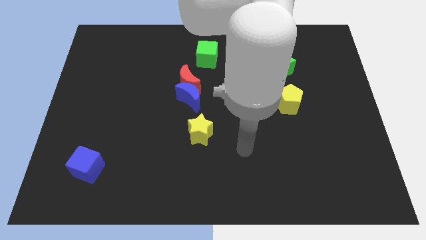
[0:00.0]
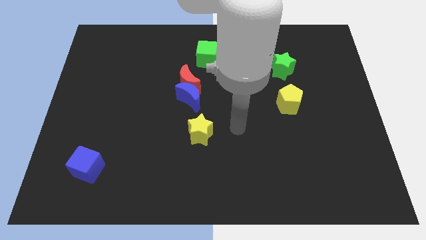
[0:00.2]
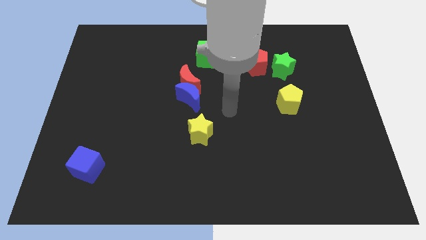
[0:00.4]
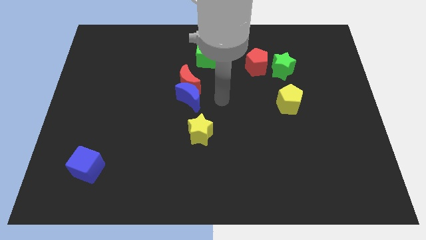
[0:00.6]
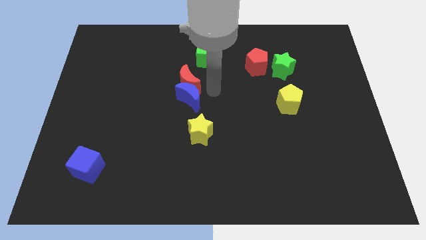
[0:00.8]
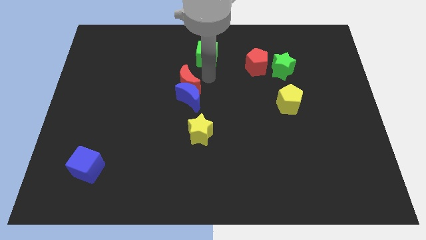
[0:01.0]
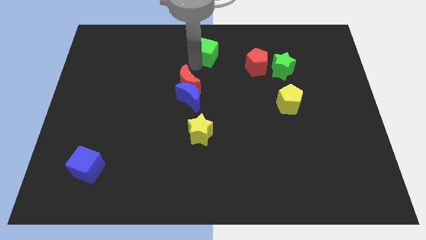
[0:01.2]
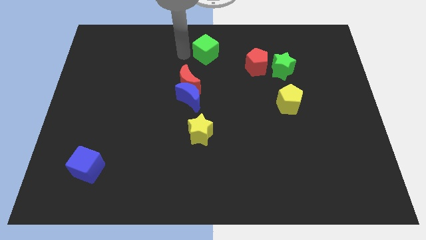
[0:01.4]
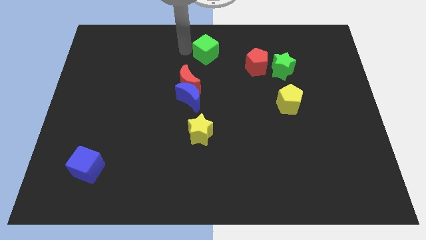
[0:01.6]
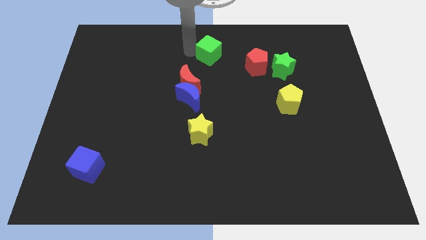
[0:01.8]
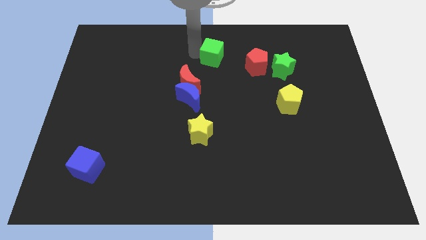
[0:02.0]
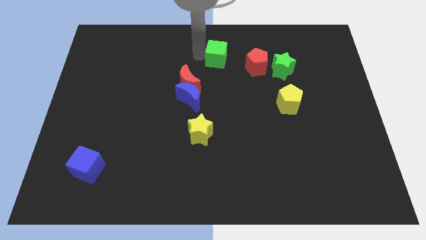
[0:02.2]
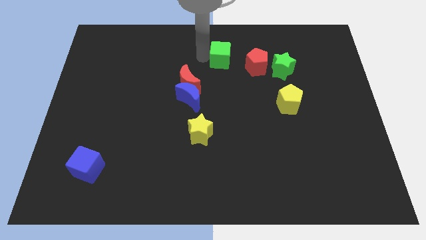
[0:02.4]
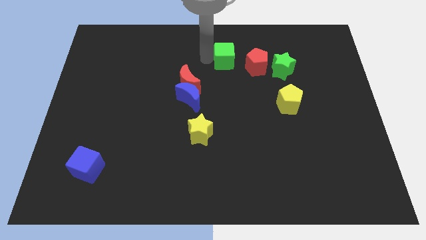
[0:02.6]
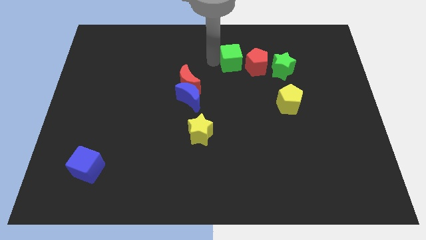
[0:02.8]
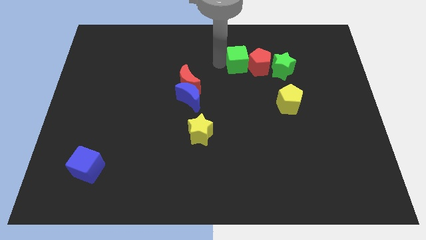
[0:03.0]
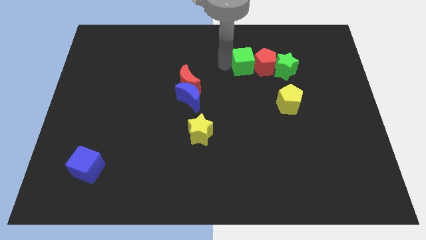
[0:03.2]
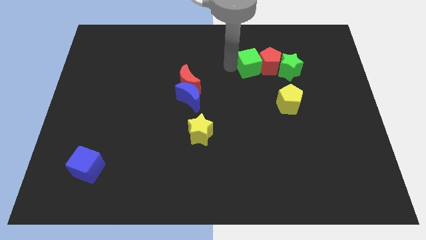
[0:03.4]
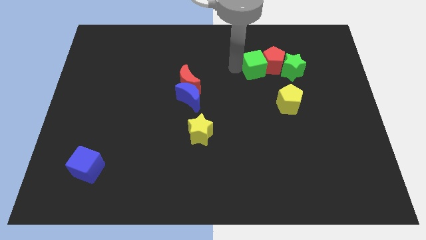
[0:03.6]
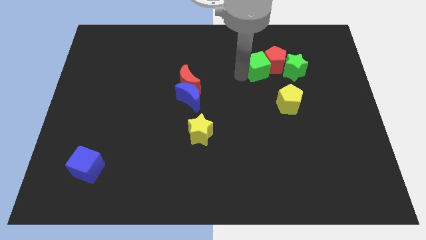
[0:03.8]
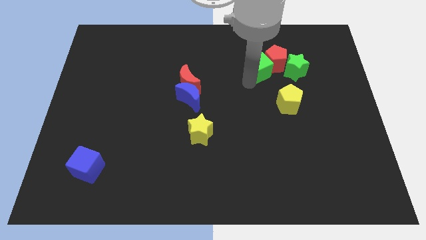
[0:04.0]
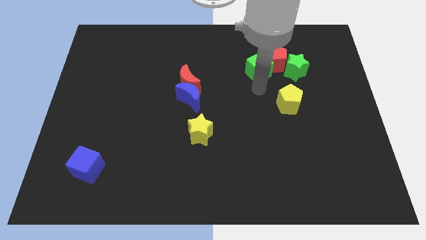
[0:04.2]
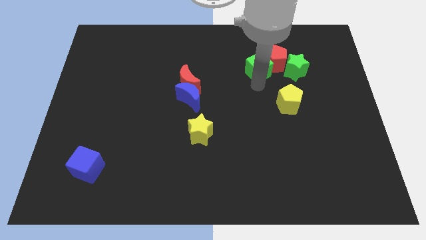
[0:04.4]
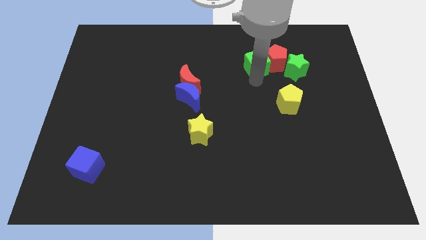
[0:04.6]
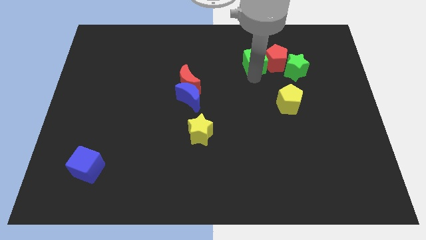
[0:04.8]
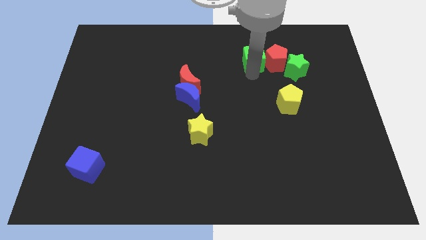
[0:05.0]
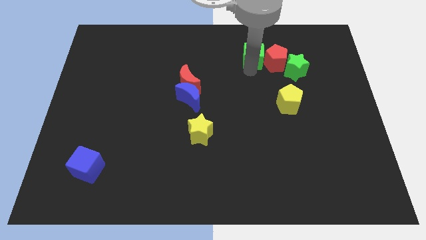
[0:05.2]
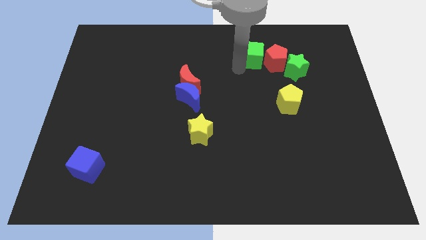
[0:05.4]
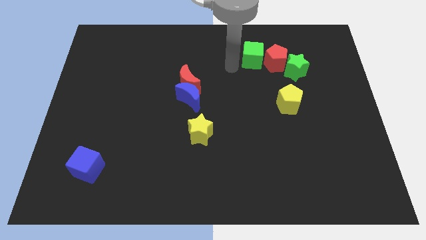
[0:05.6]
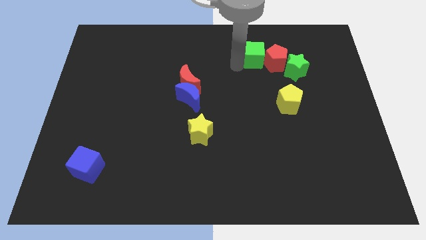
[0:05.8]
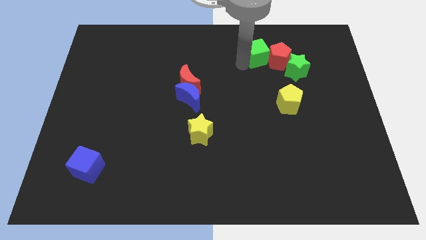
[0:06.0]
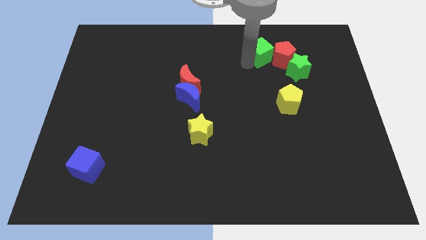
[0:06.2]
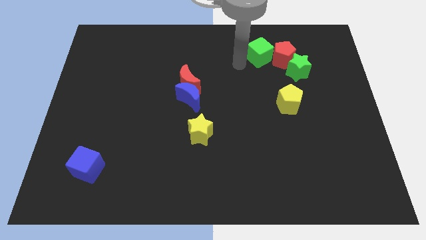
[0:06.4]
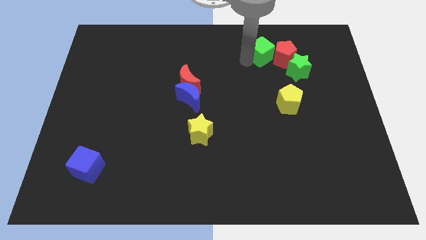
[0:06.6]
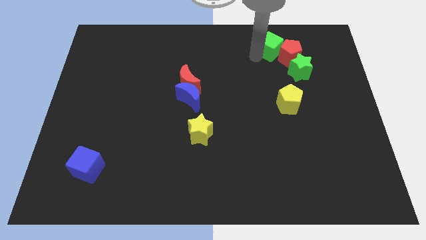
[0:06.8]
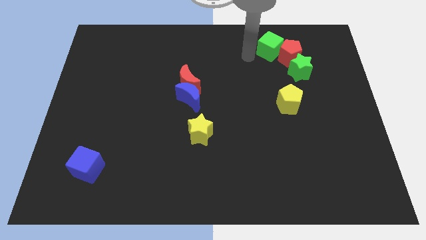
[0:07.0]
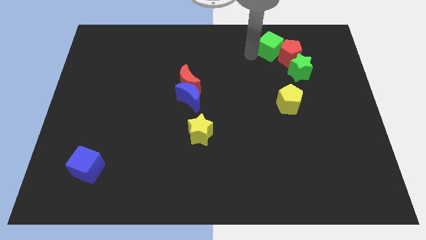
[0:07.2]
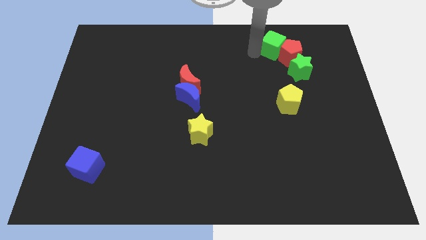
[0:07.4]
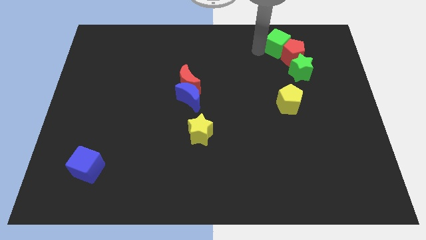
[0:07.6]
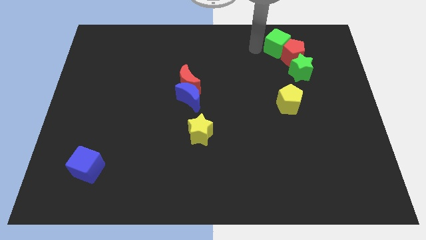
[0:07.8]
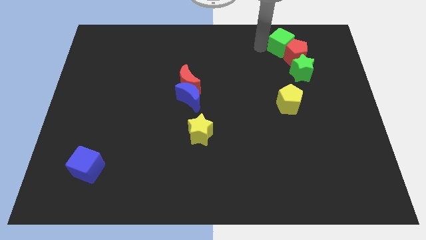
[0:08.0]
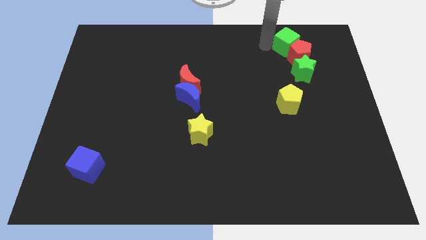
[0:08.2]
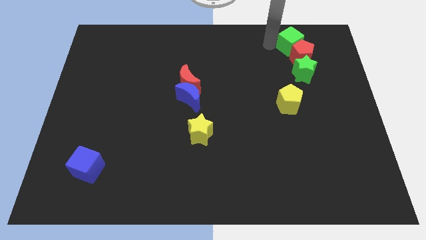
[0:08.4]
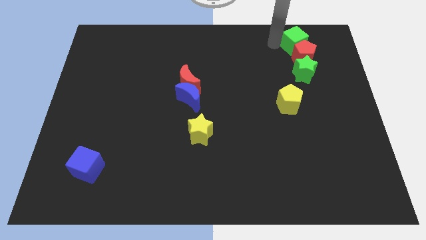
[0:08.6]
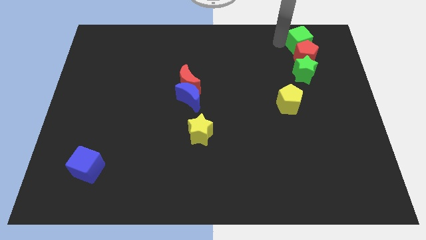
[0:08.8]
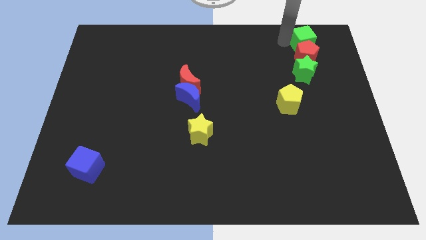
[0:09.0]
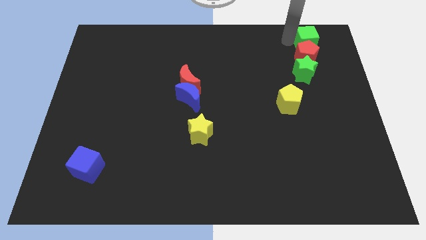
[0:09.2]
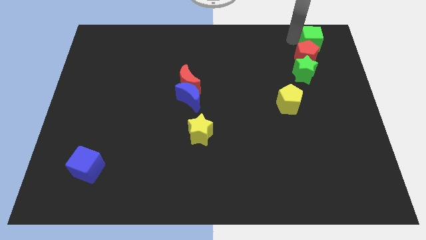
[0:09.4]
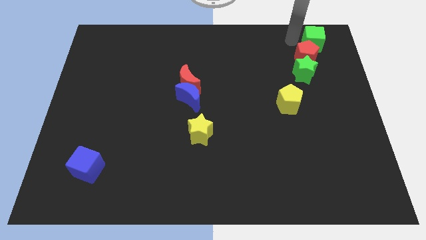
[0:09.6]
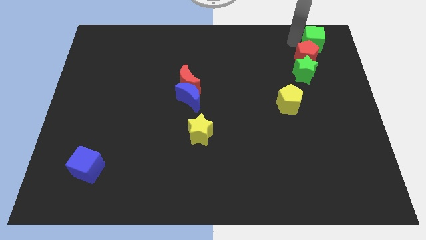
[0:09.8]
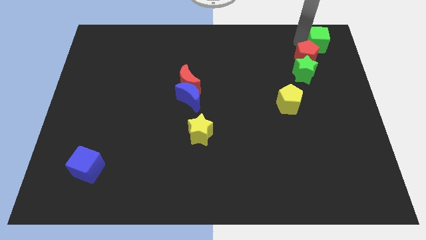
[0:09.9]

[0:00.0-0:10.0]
move the green cube to the top right corner

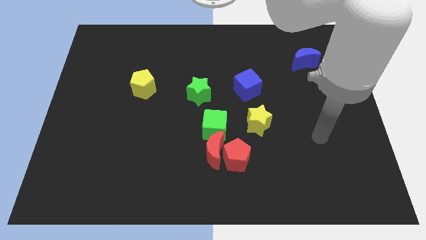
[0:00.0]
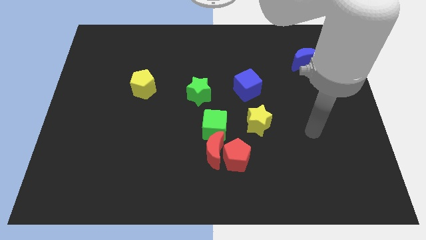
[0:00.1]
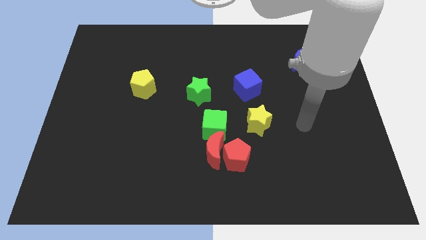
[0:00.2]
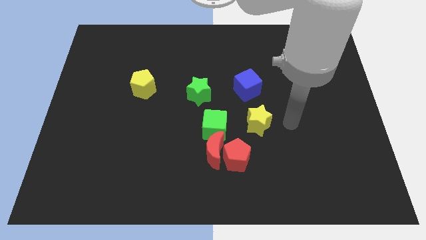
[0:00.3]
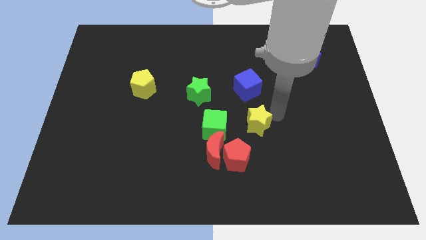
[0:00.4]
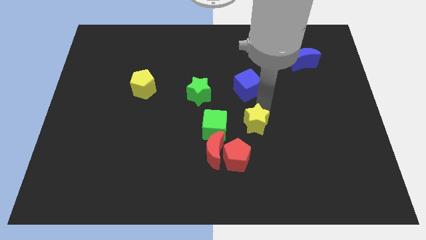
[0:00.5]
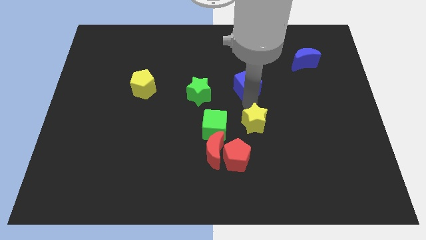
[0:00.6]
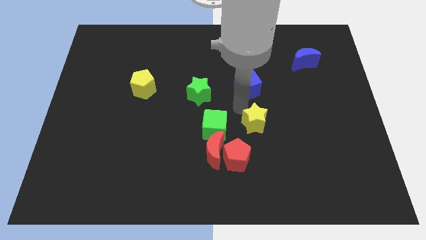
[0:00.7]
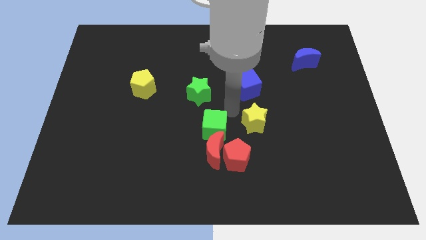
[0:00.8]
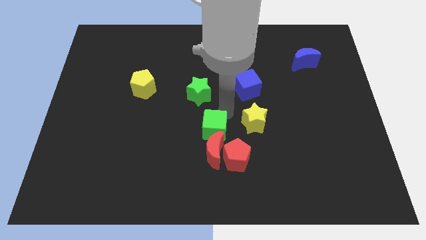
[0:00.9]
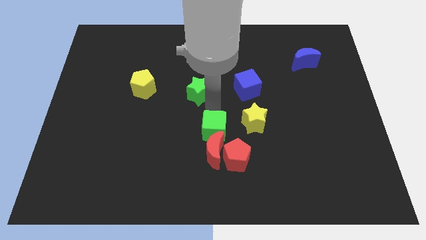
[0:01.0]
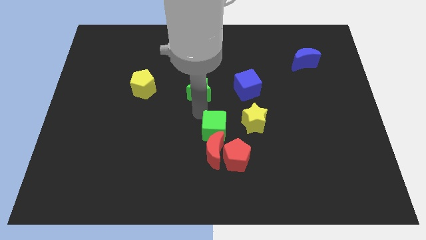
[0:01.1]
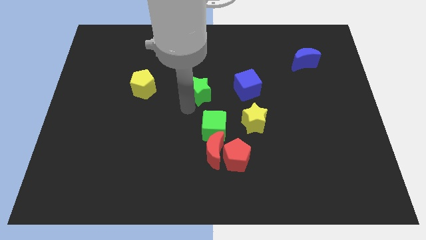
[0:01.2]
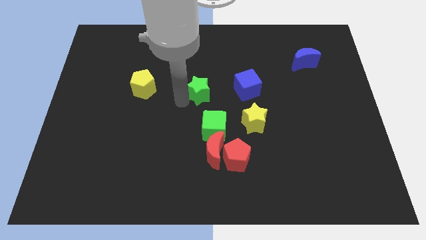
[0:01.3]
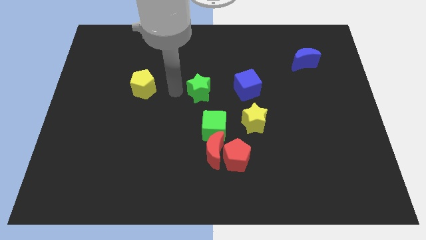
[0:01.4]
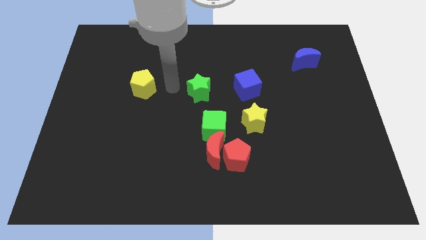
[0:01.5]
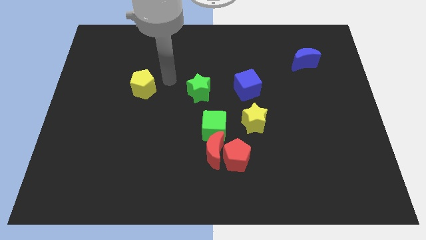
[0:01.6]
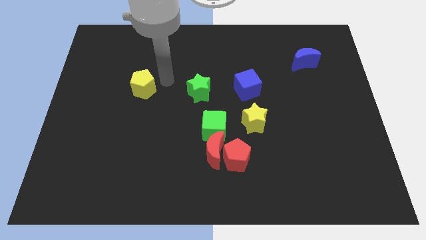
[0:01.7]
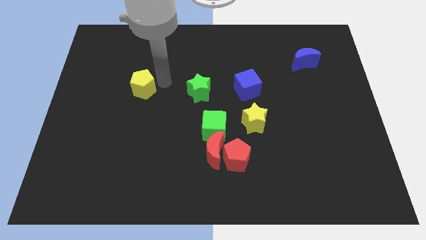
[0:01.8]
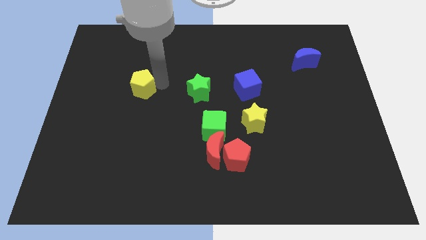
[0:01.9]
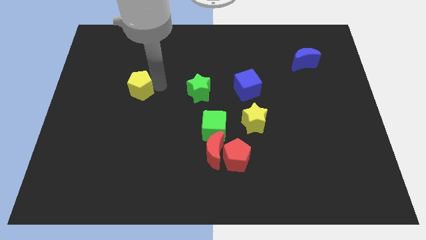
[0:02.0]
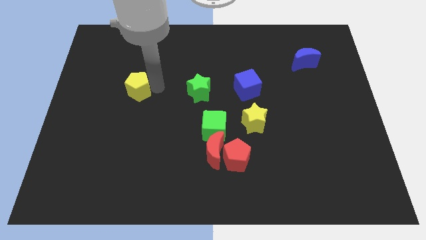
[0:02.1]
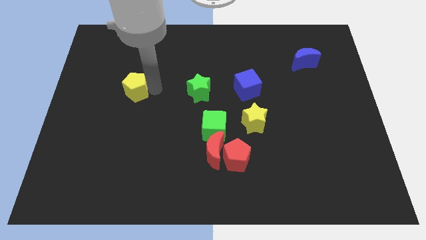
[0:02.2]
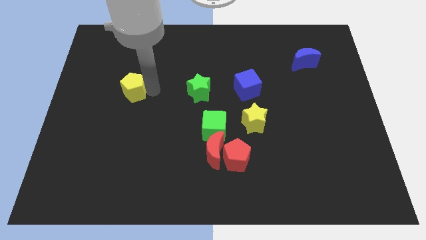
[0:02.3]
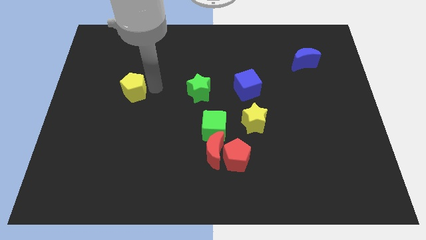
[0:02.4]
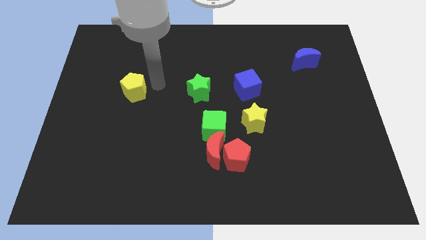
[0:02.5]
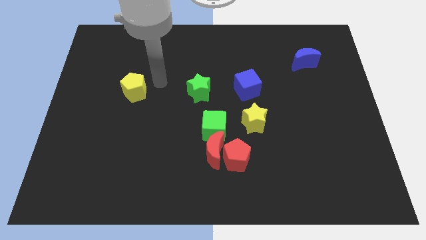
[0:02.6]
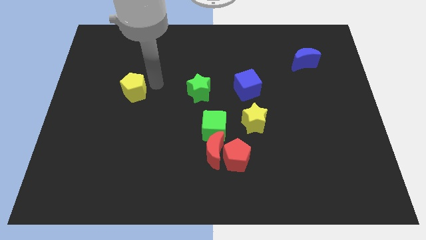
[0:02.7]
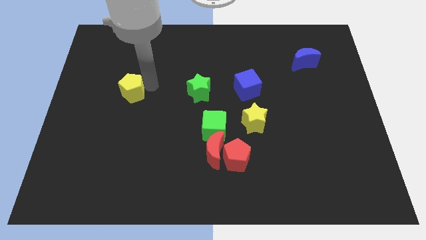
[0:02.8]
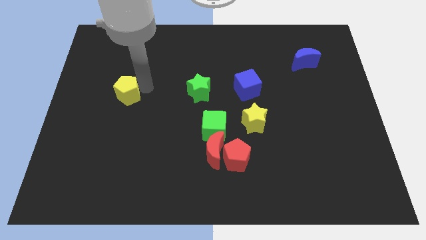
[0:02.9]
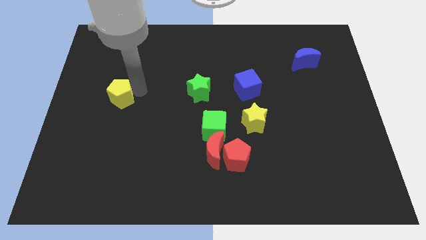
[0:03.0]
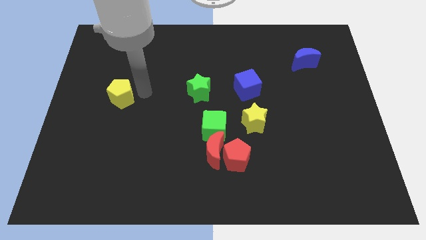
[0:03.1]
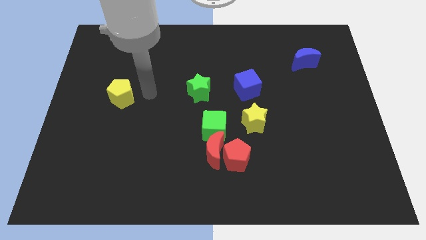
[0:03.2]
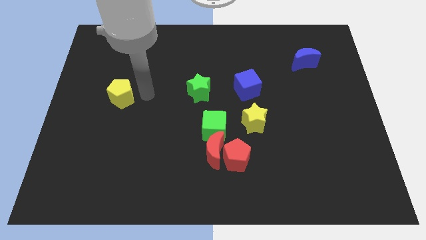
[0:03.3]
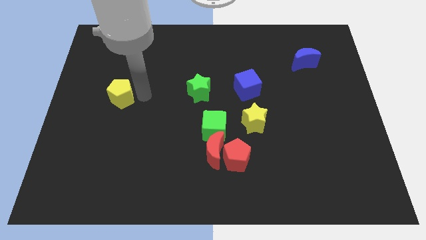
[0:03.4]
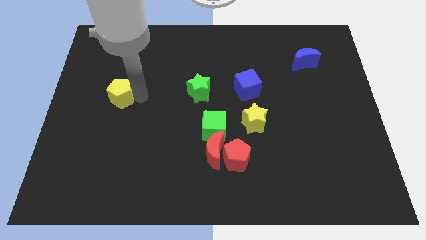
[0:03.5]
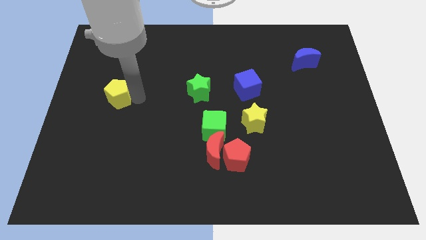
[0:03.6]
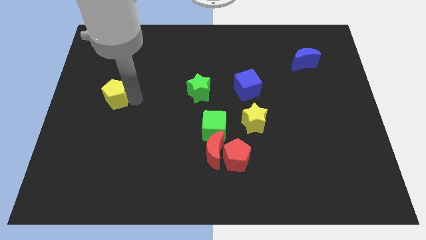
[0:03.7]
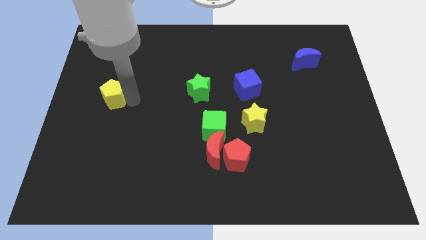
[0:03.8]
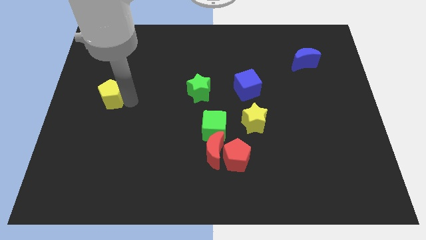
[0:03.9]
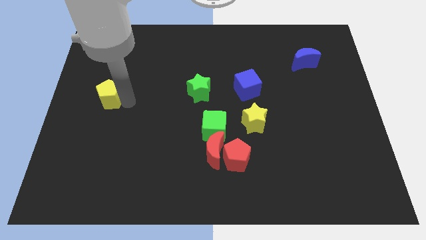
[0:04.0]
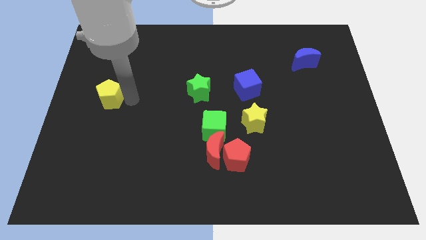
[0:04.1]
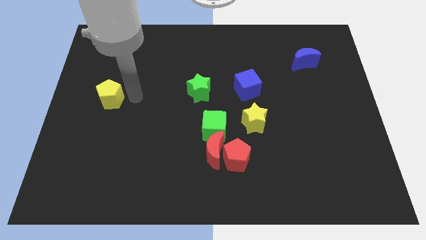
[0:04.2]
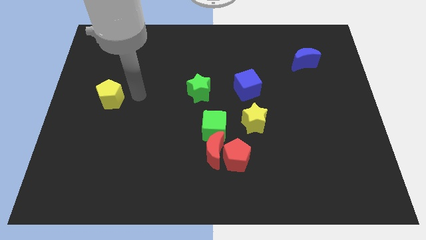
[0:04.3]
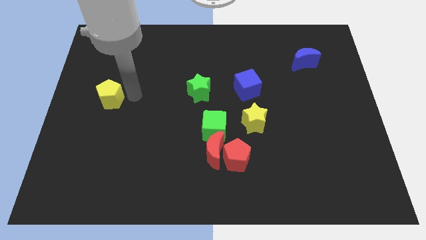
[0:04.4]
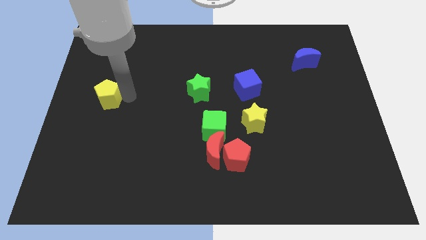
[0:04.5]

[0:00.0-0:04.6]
slide the yellow pentagon to the center left
